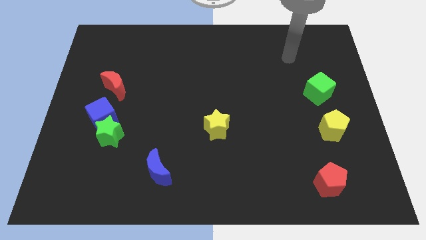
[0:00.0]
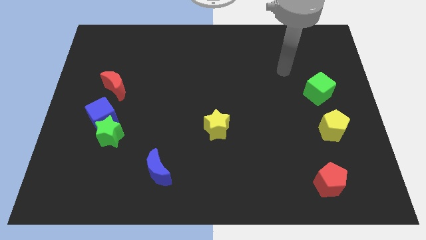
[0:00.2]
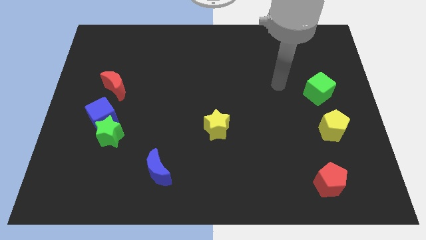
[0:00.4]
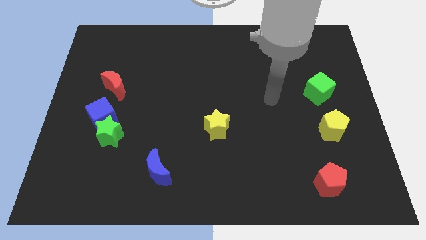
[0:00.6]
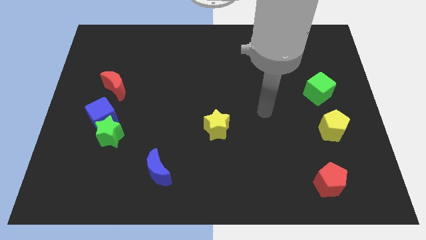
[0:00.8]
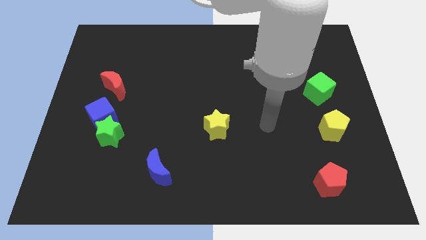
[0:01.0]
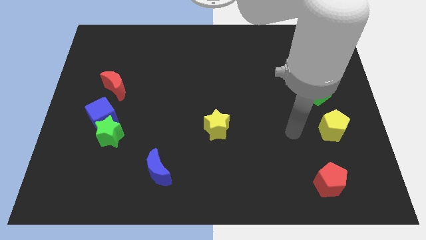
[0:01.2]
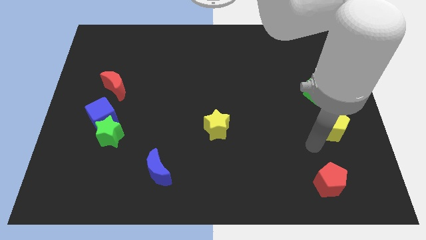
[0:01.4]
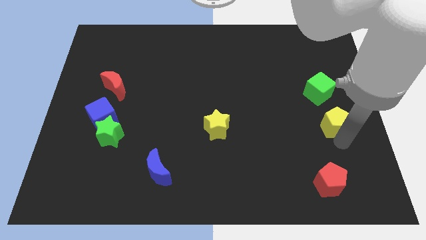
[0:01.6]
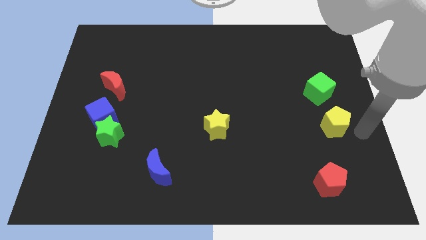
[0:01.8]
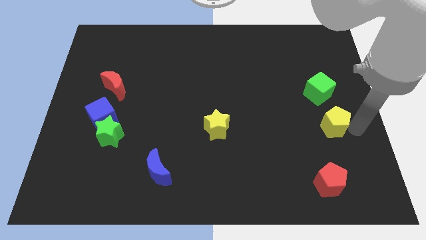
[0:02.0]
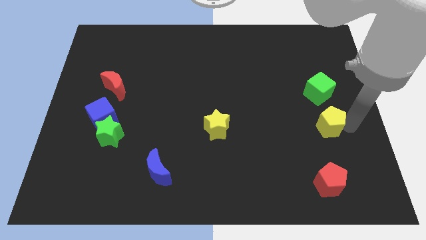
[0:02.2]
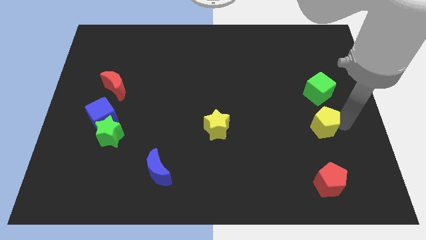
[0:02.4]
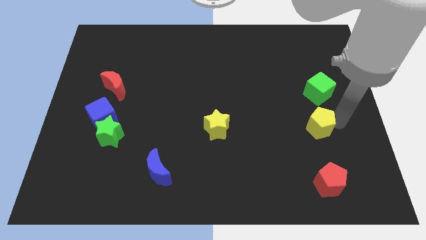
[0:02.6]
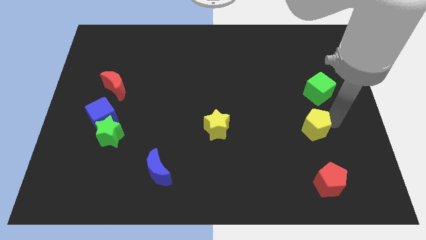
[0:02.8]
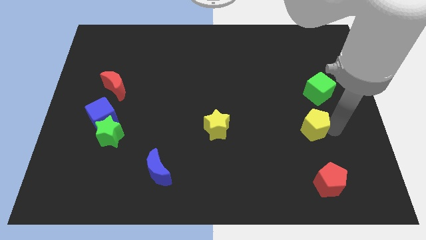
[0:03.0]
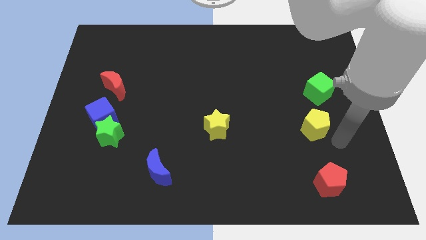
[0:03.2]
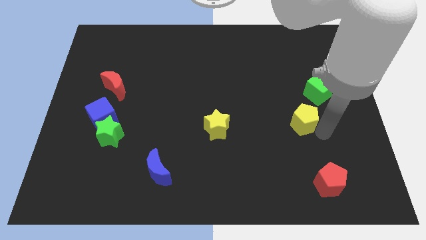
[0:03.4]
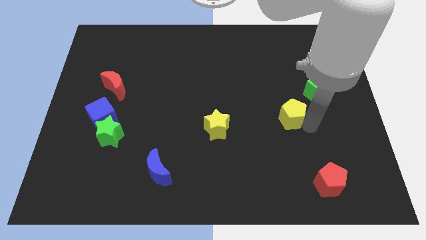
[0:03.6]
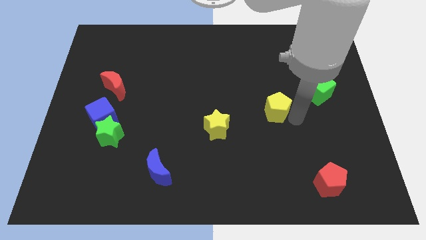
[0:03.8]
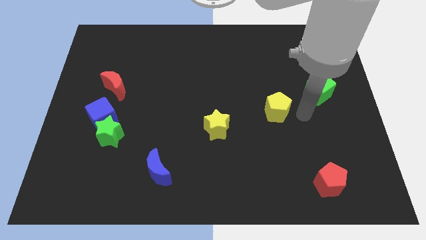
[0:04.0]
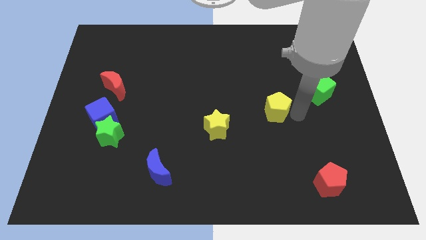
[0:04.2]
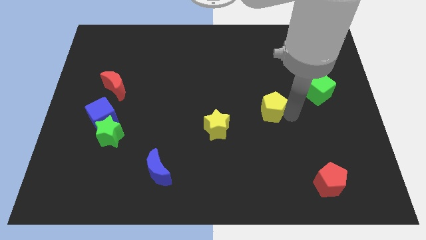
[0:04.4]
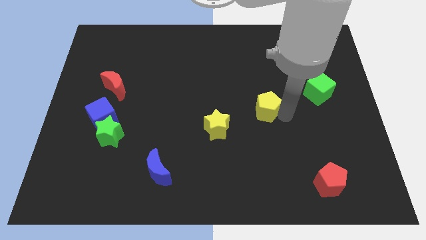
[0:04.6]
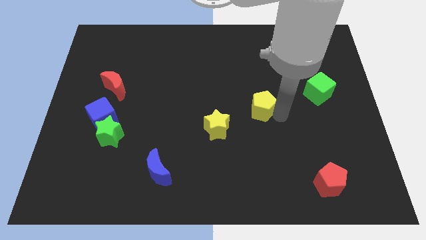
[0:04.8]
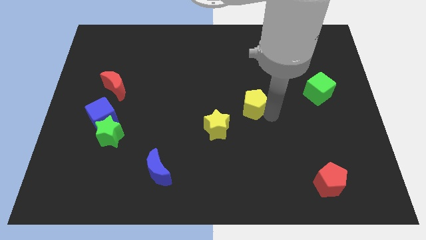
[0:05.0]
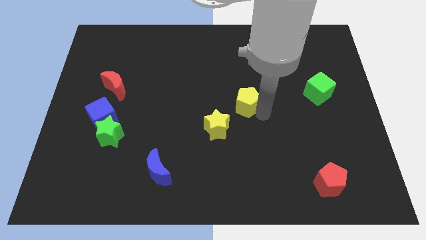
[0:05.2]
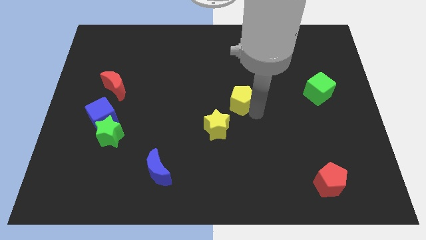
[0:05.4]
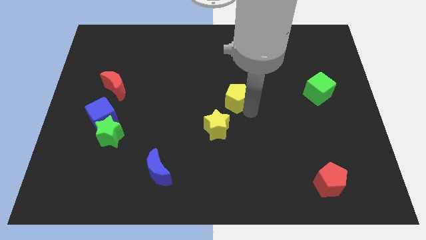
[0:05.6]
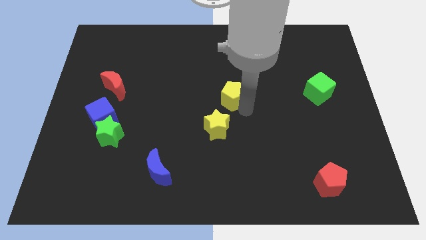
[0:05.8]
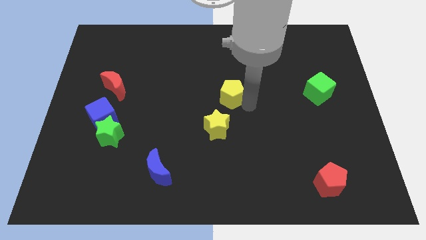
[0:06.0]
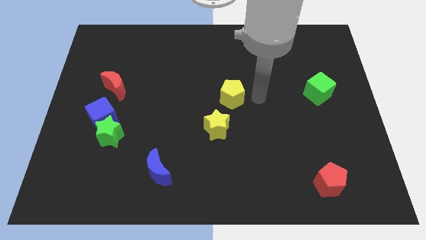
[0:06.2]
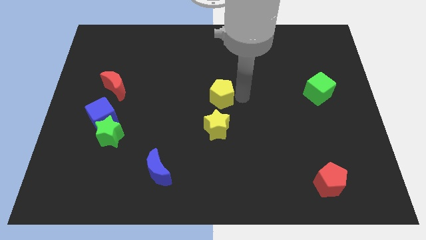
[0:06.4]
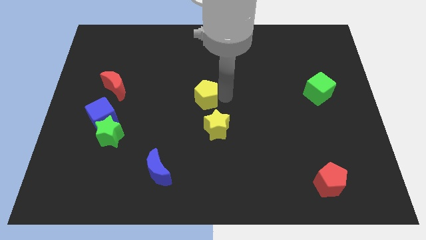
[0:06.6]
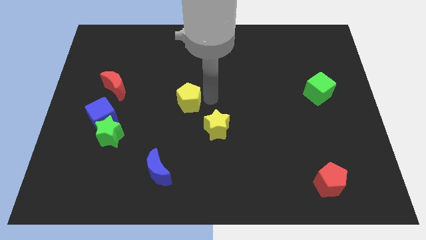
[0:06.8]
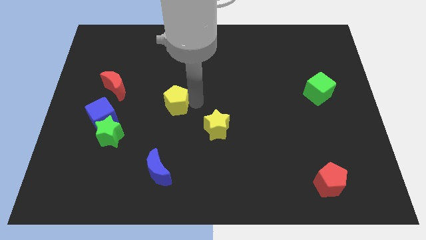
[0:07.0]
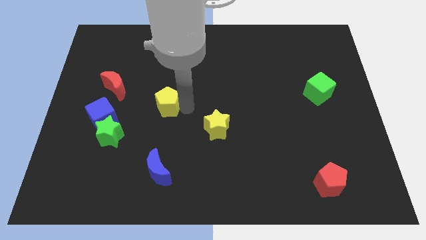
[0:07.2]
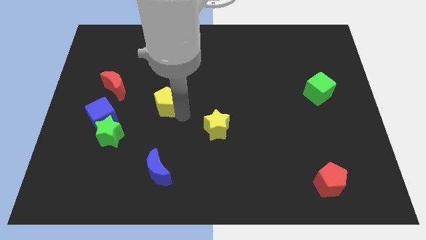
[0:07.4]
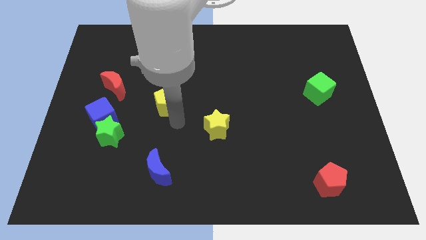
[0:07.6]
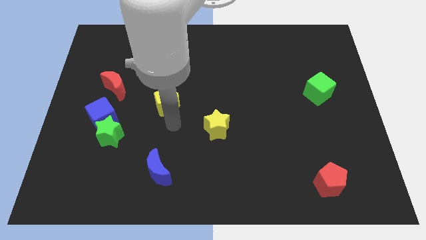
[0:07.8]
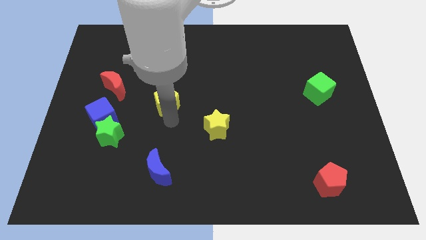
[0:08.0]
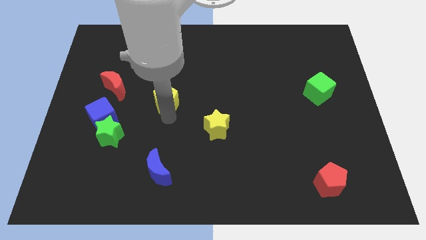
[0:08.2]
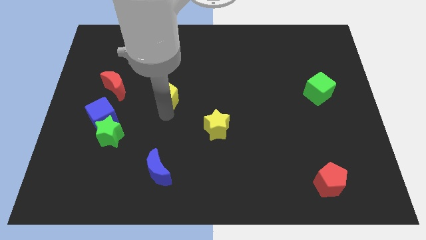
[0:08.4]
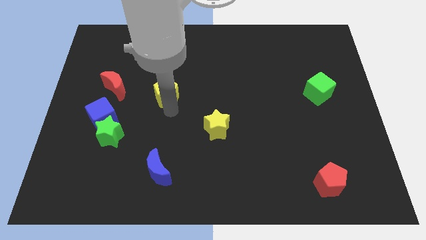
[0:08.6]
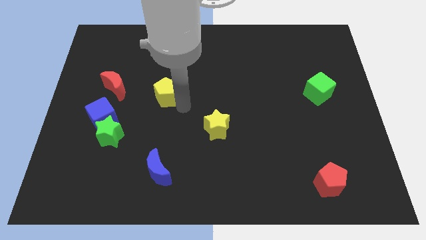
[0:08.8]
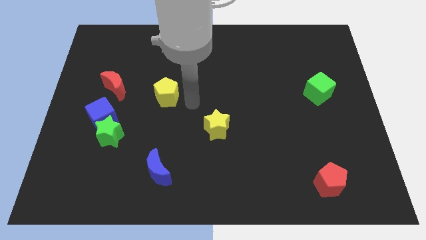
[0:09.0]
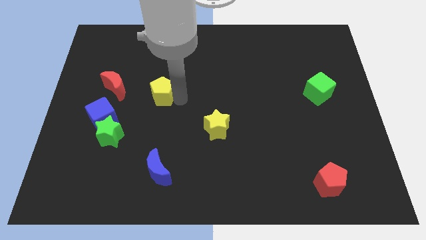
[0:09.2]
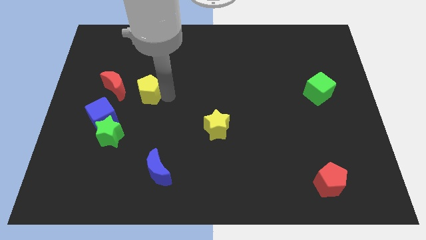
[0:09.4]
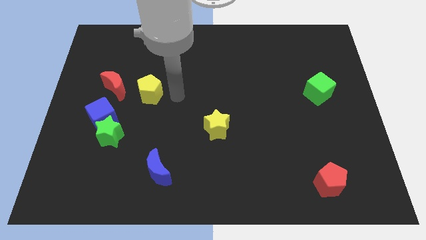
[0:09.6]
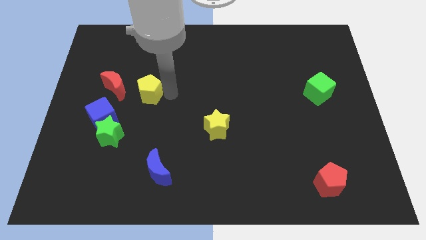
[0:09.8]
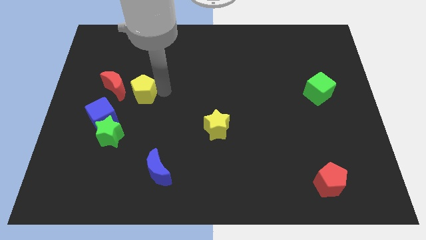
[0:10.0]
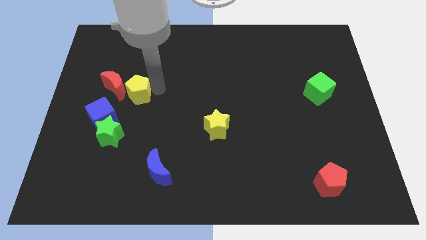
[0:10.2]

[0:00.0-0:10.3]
move the yellow pentagon to the red moon

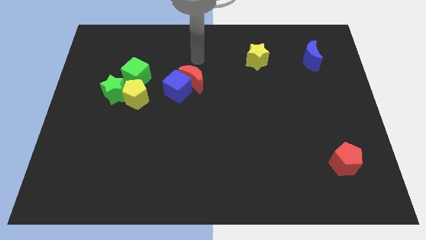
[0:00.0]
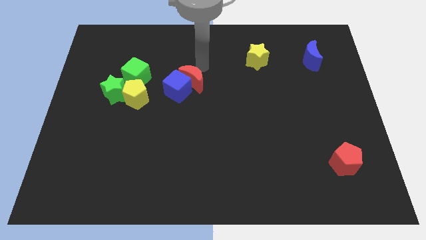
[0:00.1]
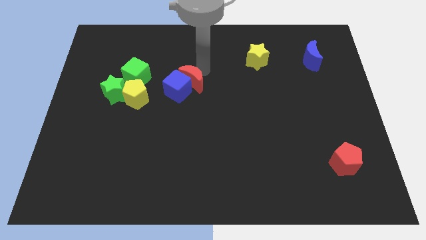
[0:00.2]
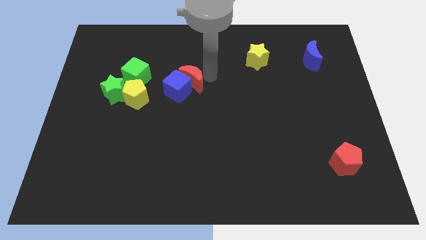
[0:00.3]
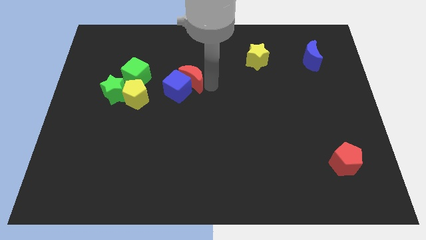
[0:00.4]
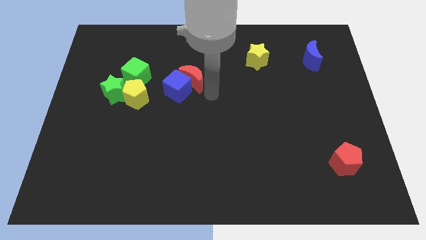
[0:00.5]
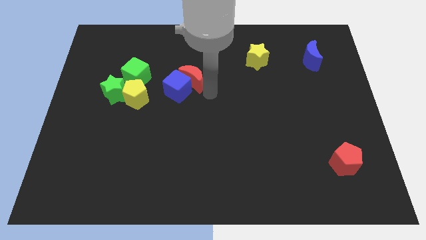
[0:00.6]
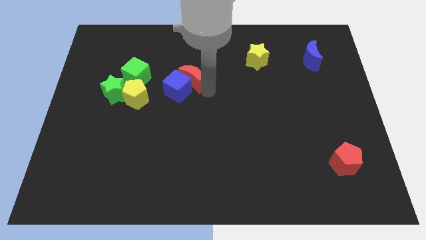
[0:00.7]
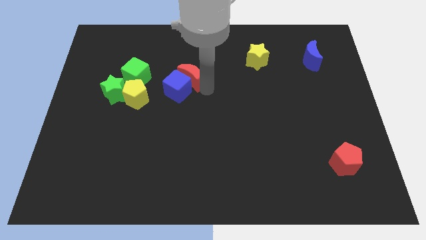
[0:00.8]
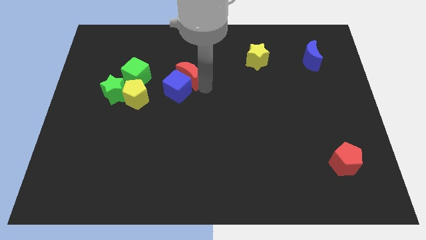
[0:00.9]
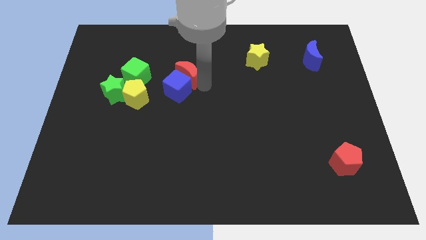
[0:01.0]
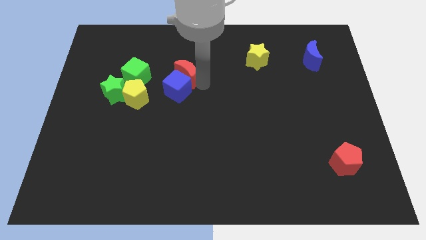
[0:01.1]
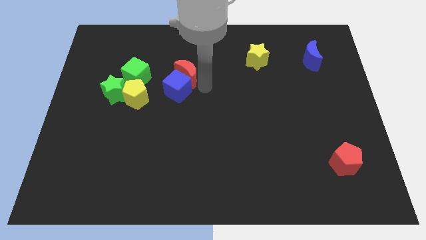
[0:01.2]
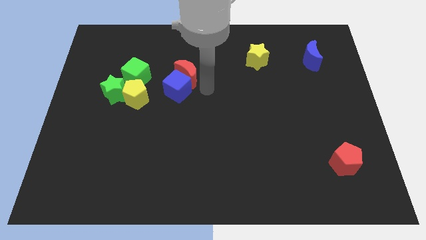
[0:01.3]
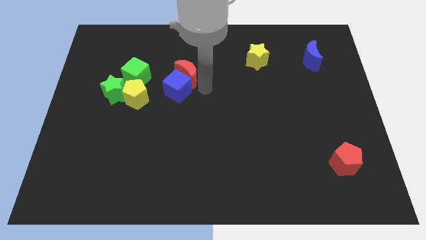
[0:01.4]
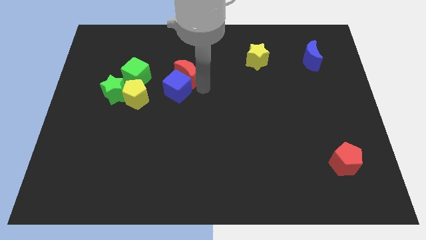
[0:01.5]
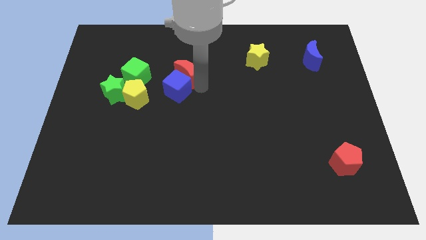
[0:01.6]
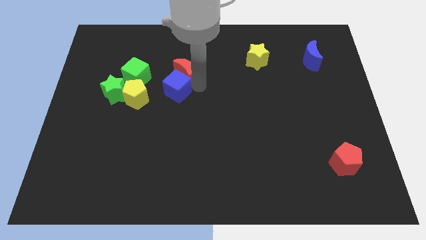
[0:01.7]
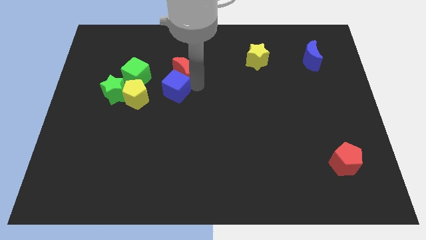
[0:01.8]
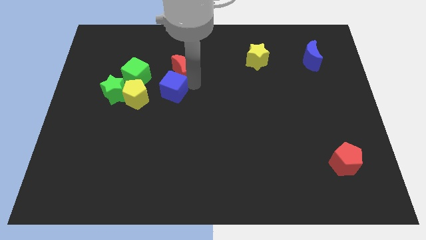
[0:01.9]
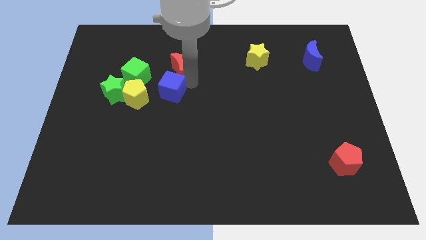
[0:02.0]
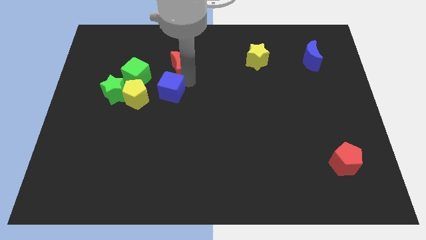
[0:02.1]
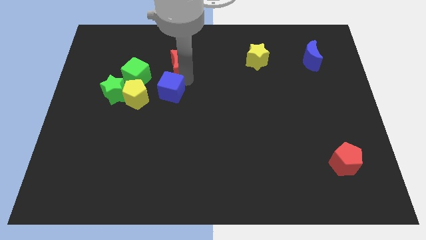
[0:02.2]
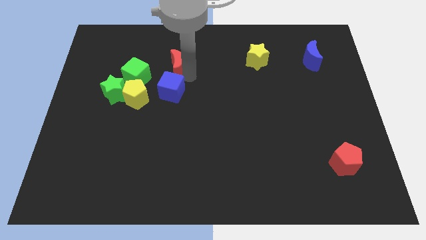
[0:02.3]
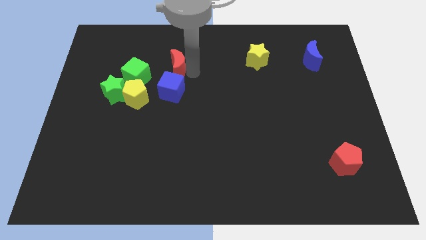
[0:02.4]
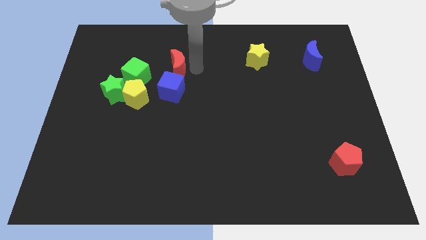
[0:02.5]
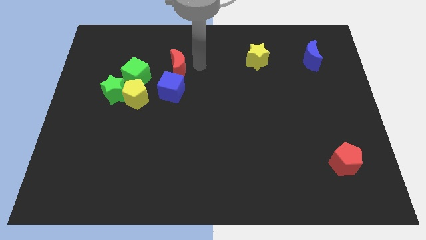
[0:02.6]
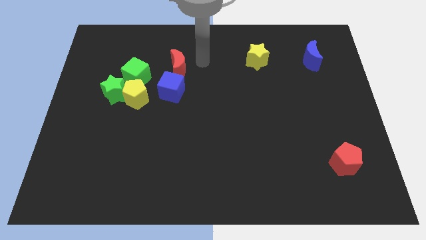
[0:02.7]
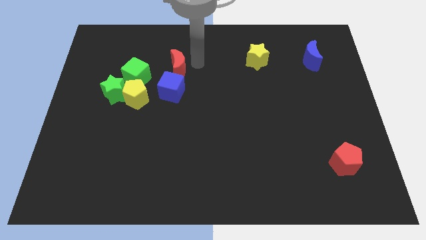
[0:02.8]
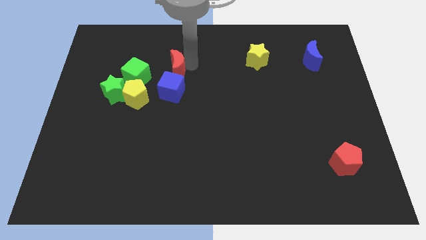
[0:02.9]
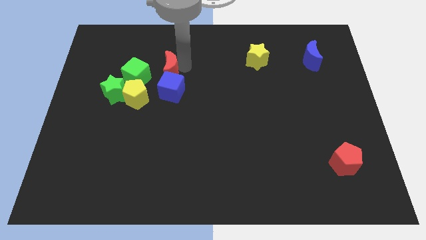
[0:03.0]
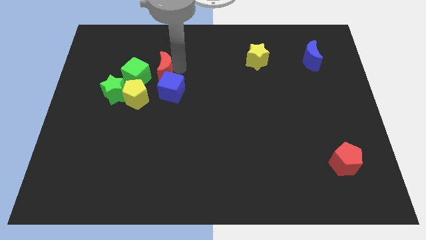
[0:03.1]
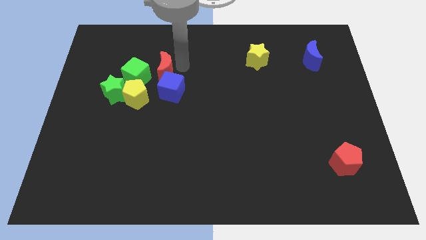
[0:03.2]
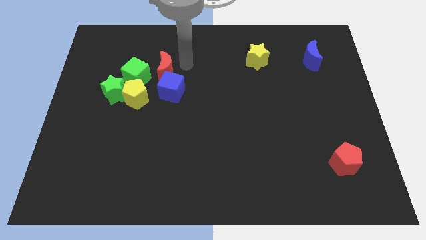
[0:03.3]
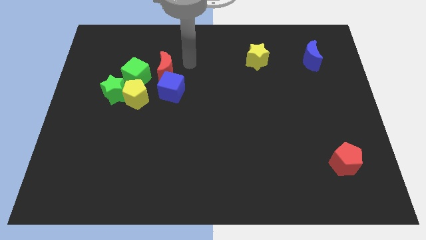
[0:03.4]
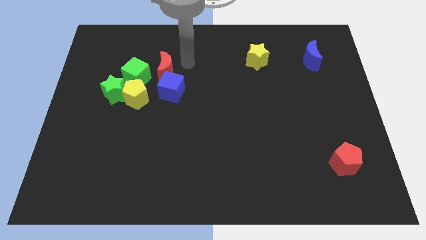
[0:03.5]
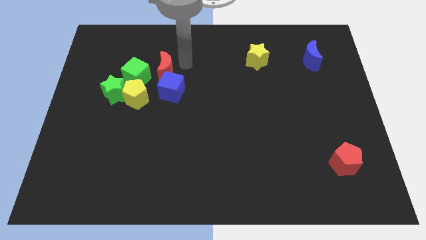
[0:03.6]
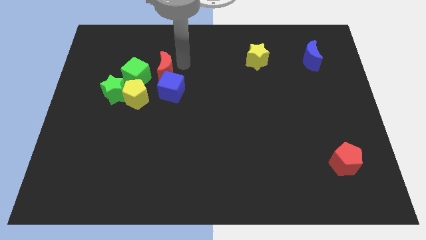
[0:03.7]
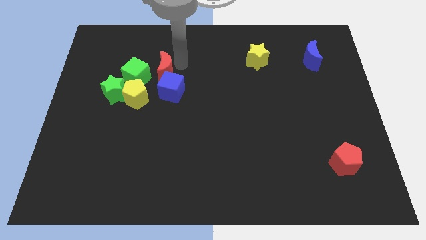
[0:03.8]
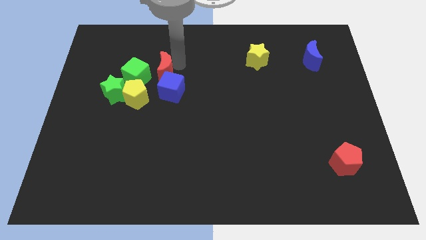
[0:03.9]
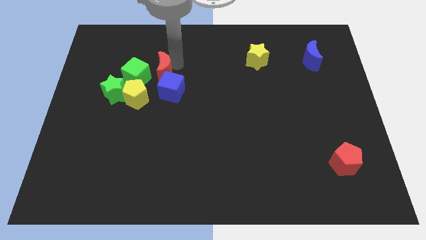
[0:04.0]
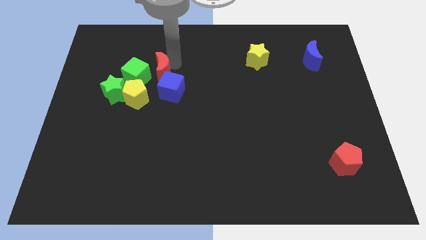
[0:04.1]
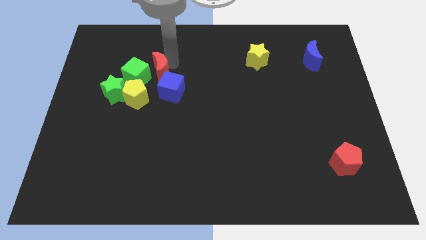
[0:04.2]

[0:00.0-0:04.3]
push the red moon next to the green cube
